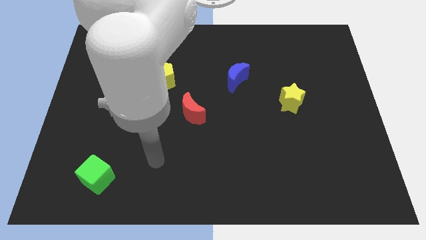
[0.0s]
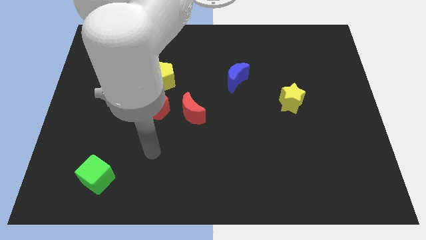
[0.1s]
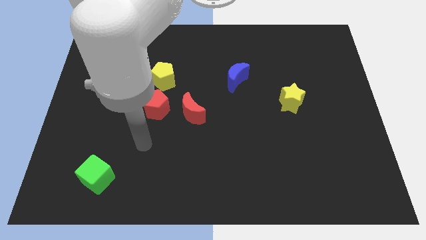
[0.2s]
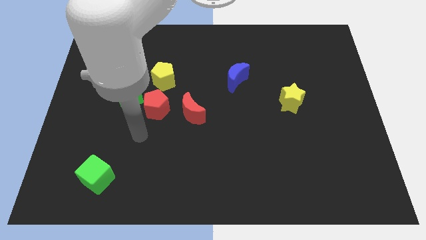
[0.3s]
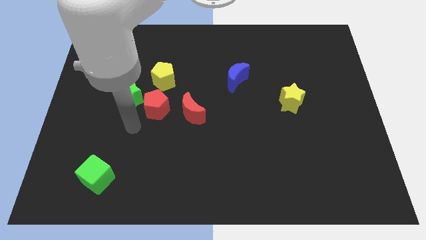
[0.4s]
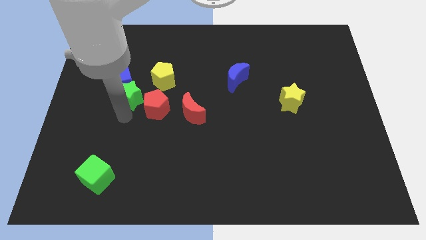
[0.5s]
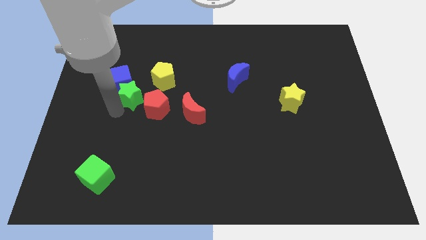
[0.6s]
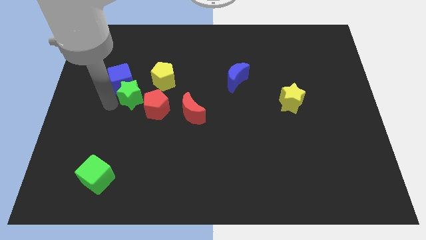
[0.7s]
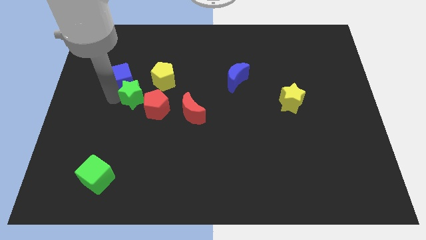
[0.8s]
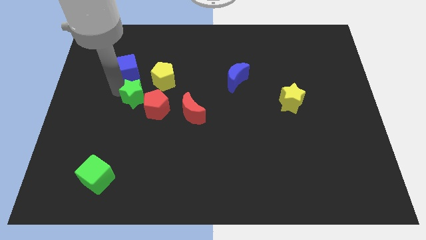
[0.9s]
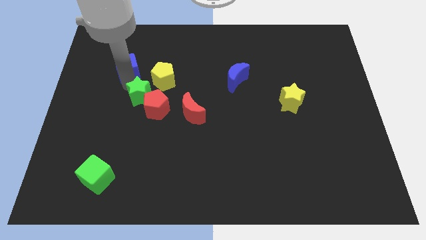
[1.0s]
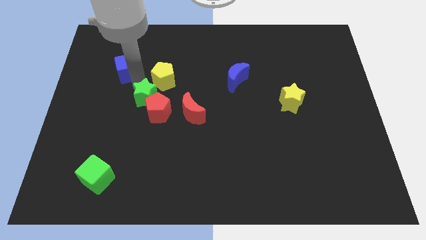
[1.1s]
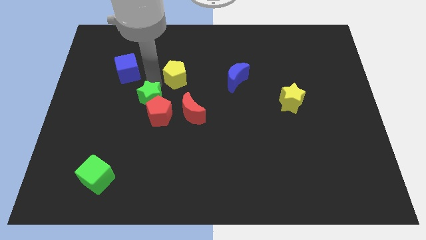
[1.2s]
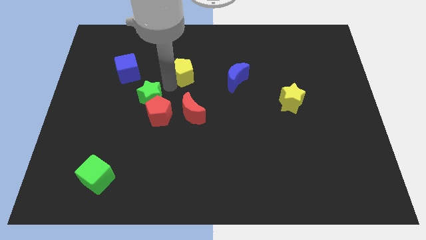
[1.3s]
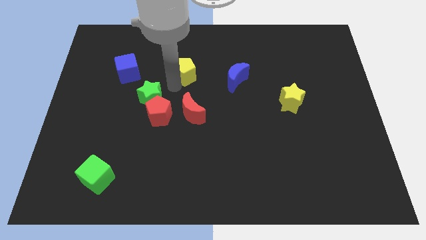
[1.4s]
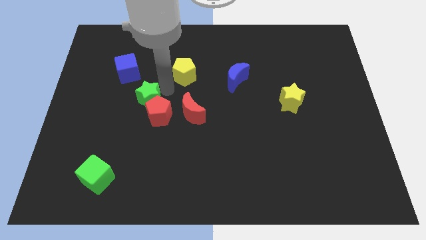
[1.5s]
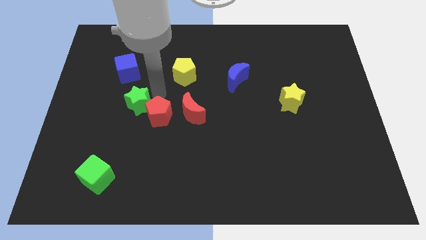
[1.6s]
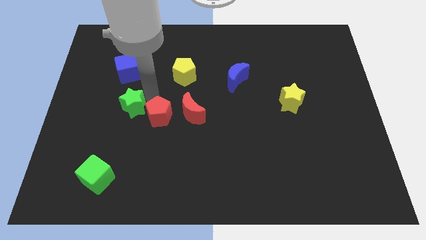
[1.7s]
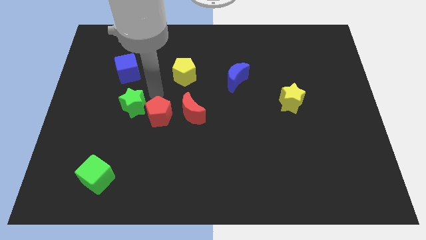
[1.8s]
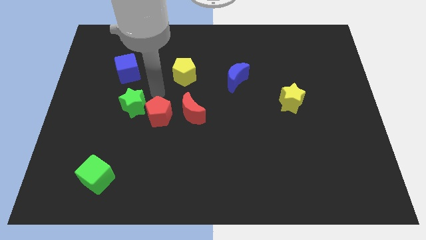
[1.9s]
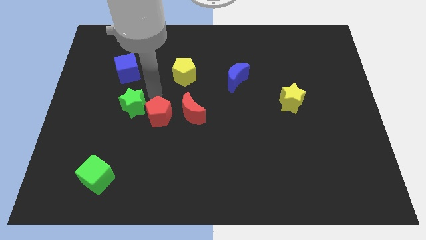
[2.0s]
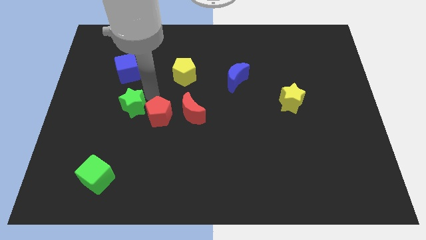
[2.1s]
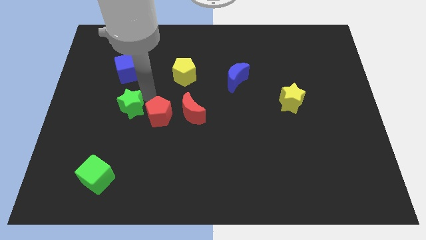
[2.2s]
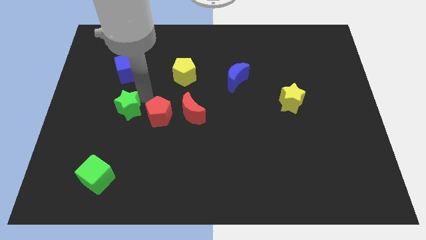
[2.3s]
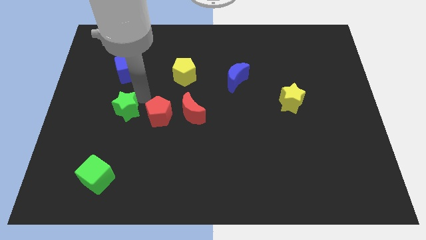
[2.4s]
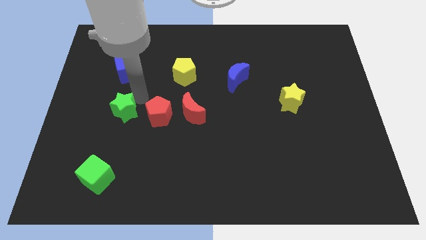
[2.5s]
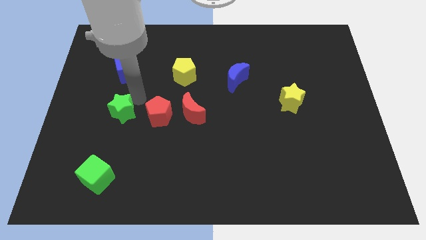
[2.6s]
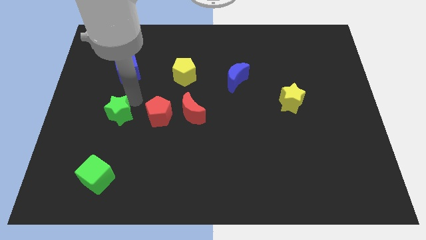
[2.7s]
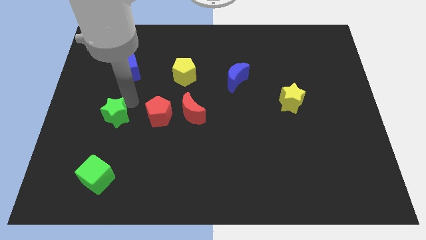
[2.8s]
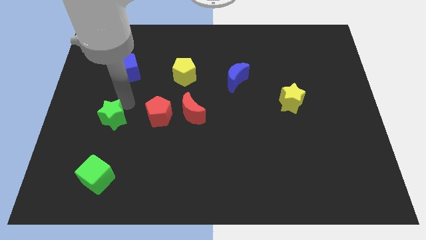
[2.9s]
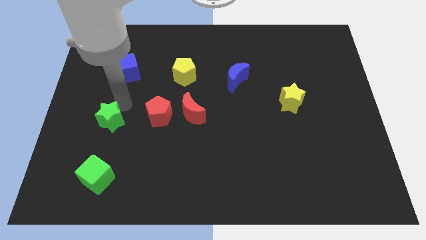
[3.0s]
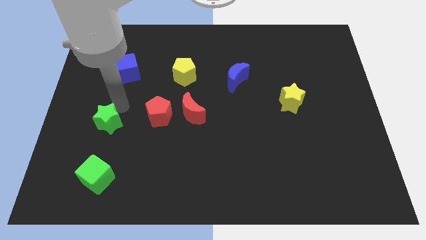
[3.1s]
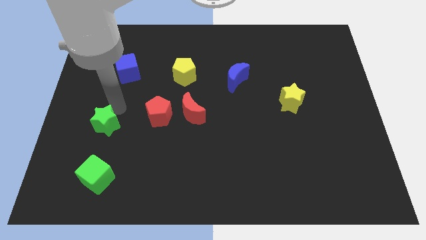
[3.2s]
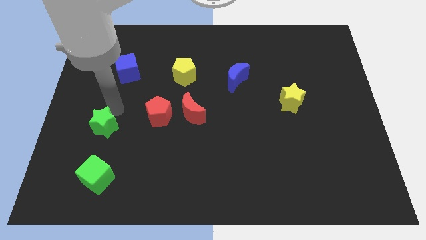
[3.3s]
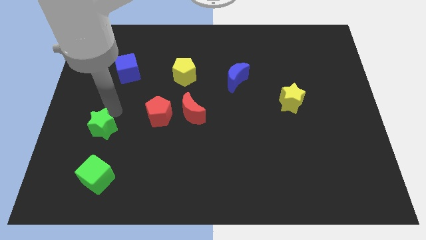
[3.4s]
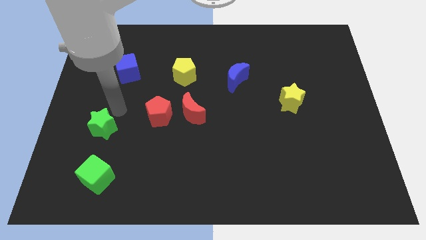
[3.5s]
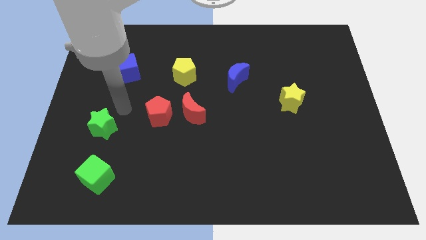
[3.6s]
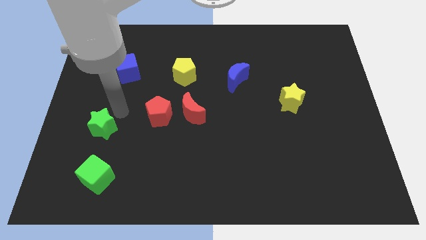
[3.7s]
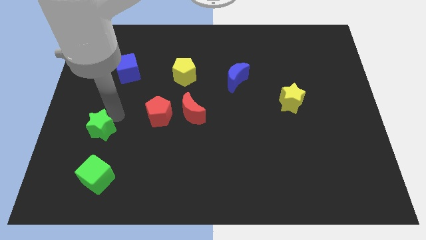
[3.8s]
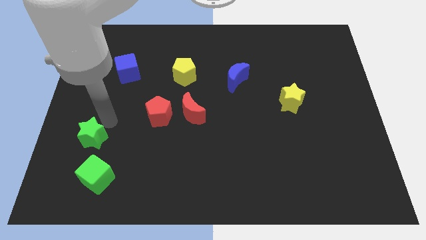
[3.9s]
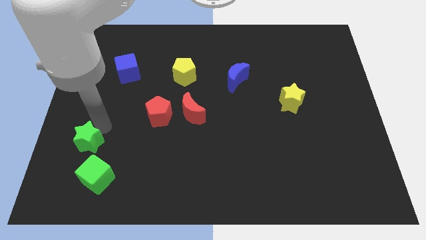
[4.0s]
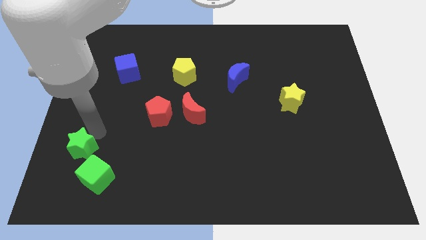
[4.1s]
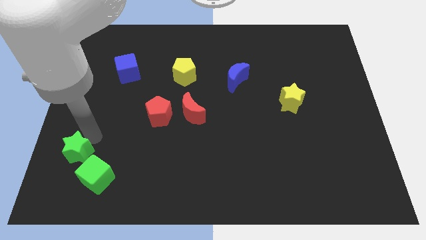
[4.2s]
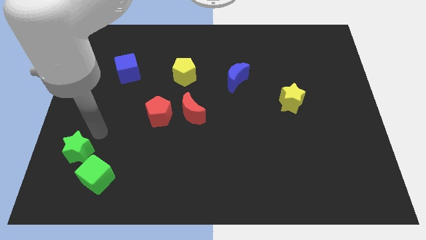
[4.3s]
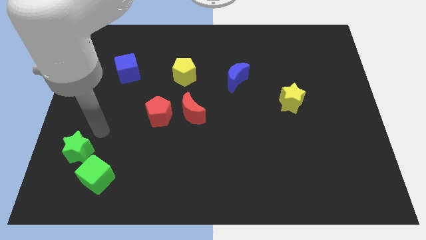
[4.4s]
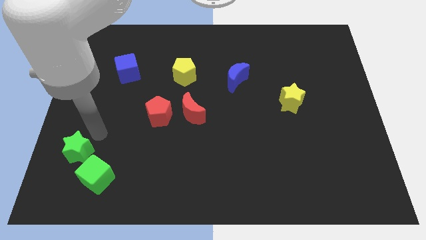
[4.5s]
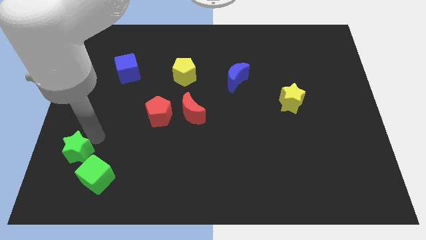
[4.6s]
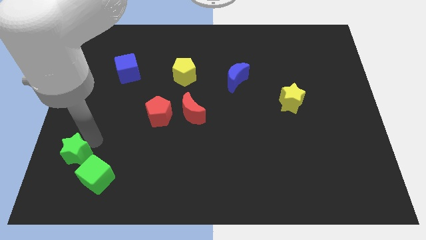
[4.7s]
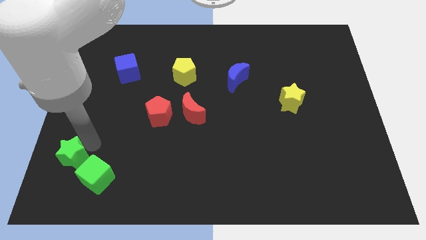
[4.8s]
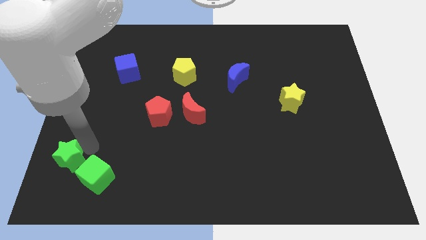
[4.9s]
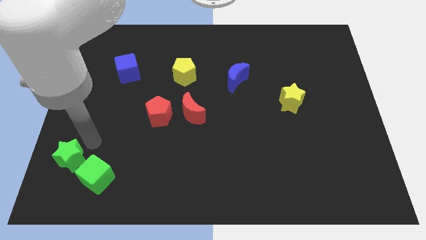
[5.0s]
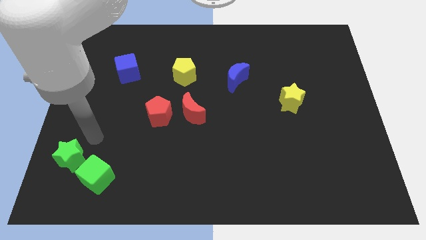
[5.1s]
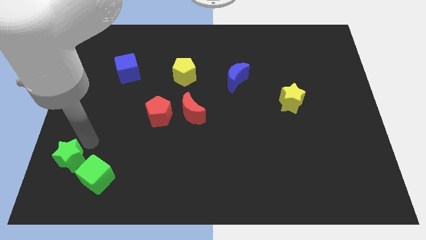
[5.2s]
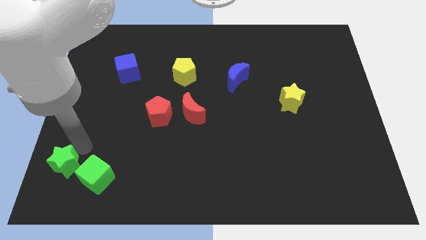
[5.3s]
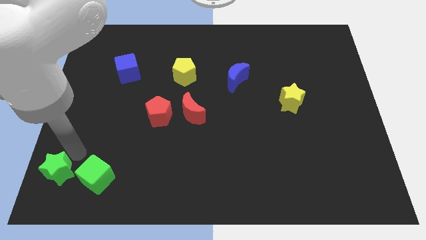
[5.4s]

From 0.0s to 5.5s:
put the green star to the bottom left of the board
